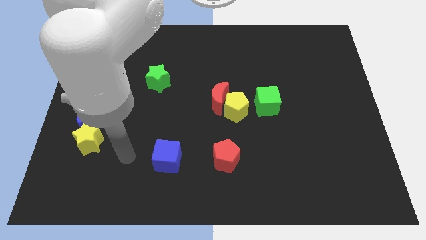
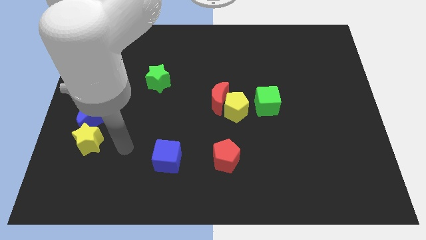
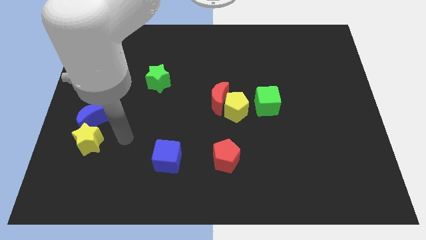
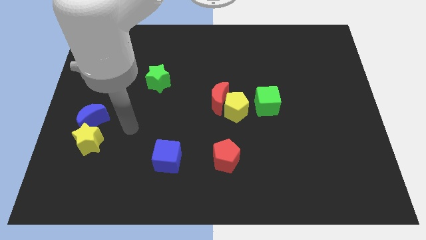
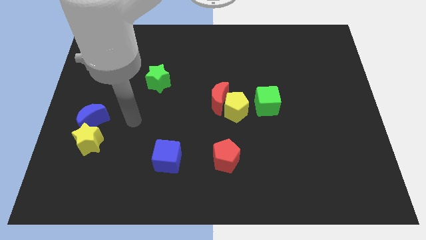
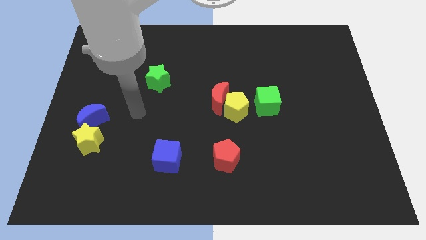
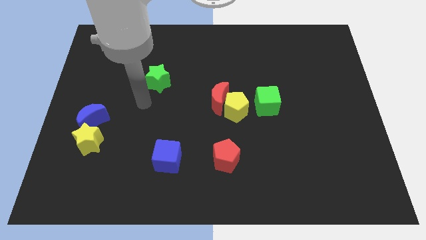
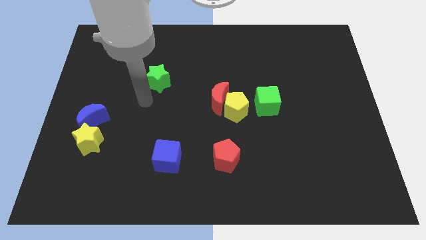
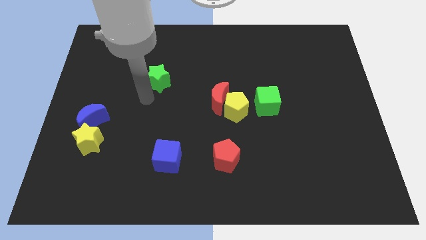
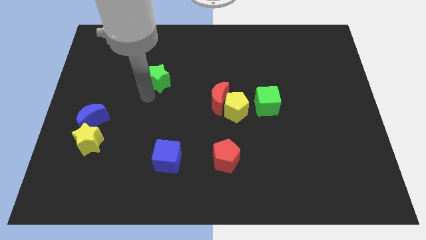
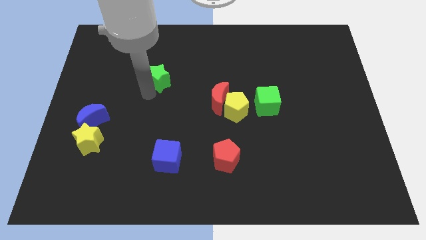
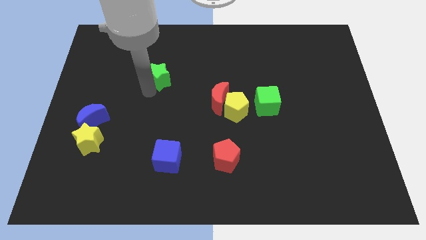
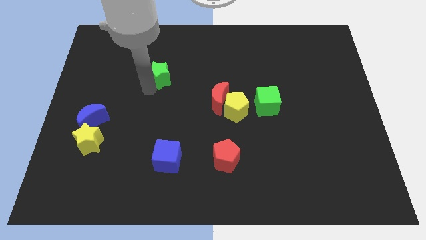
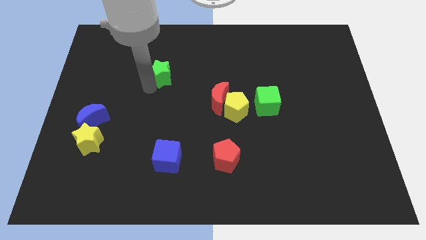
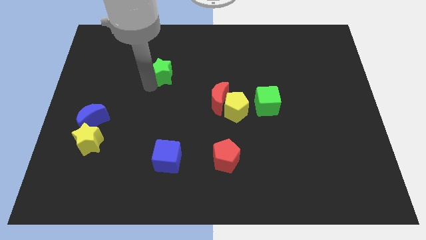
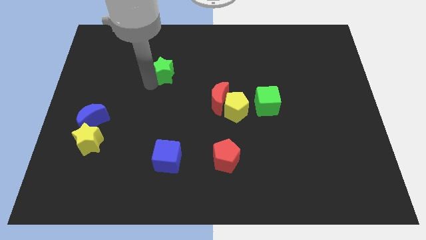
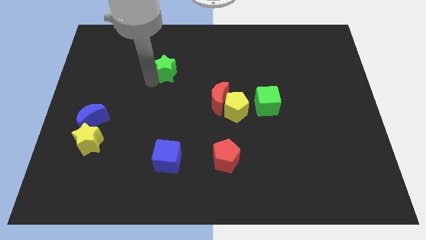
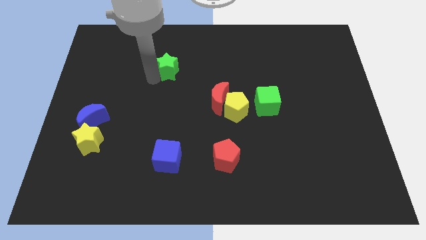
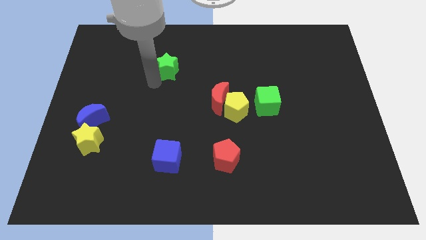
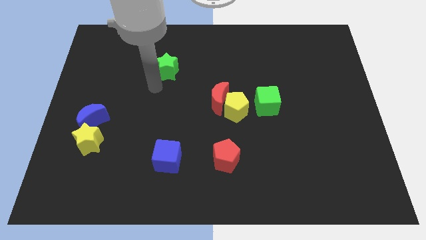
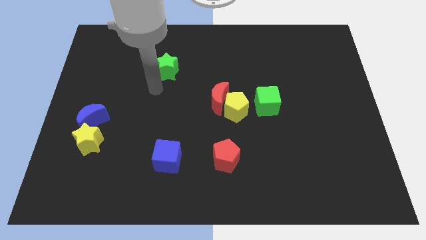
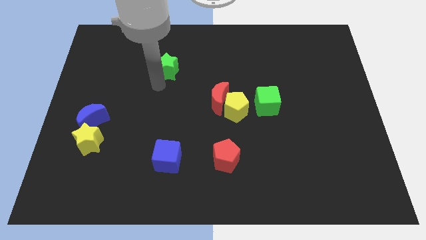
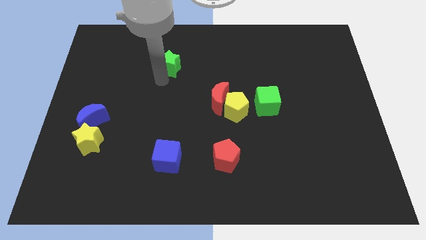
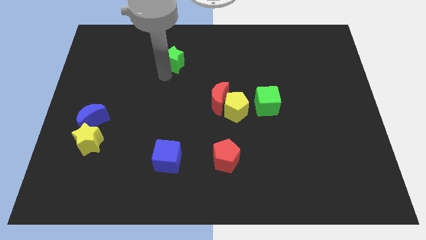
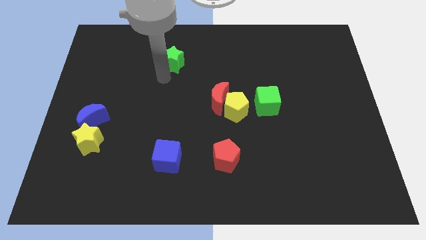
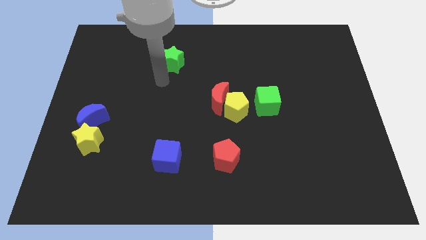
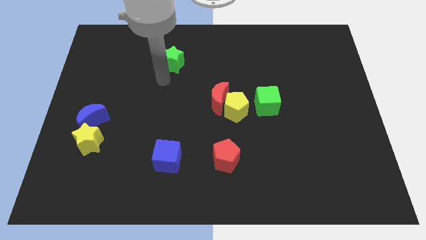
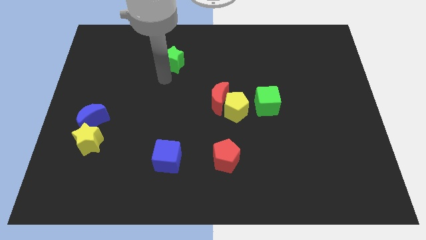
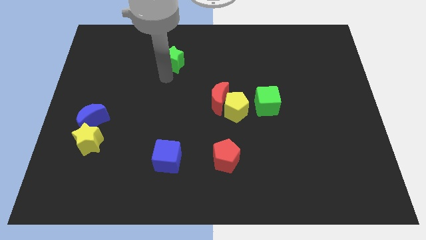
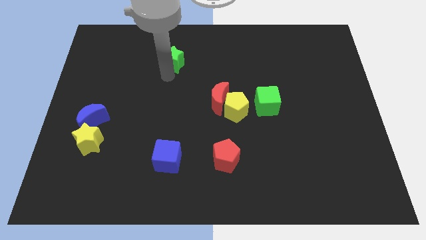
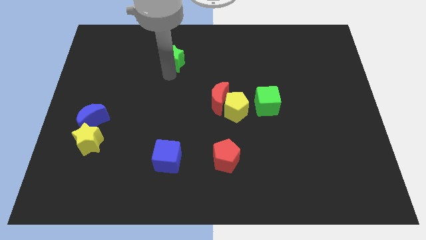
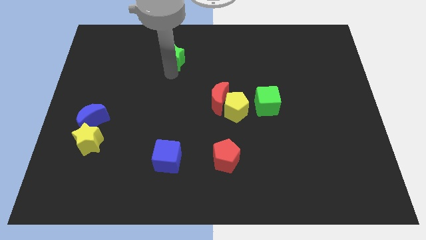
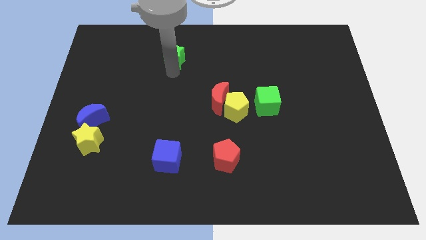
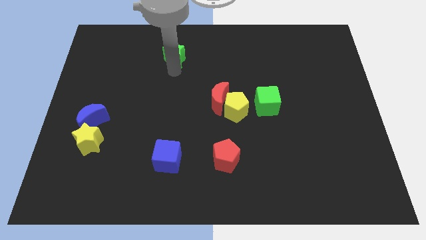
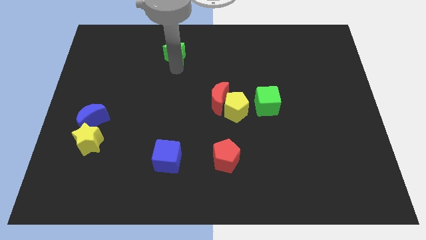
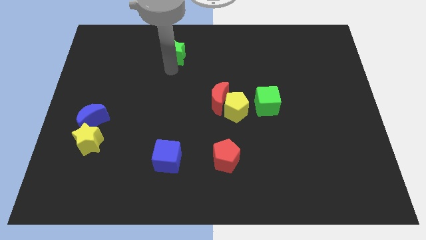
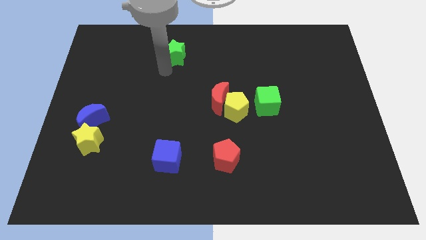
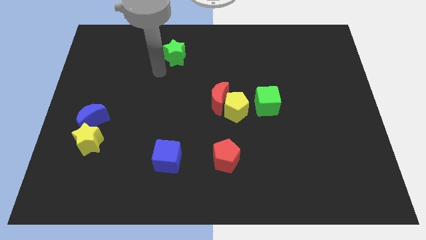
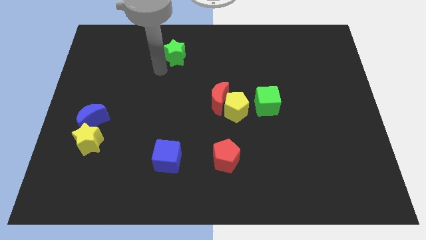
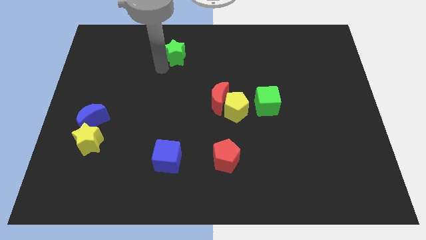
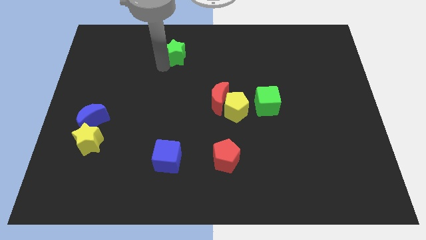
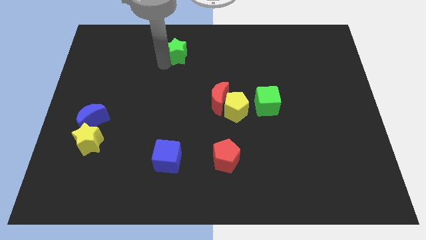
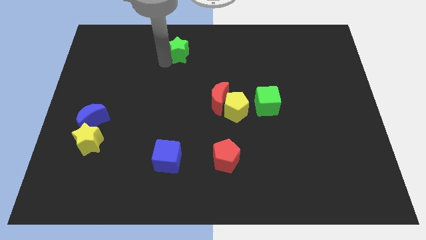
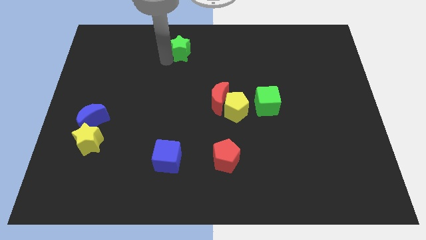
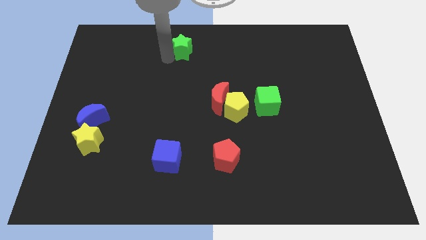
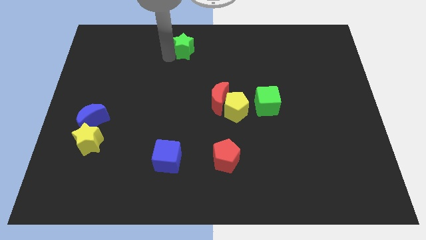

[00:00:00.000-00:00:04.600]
move the green star to the towards your base

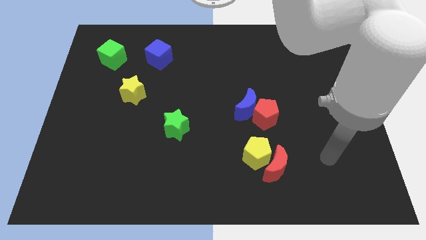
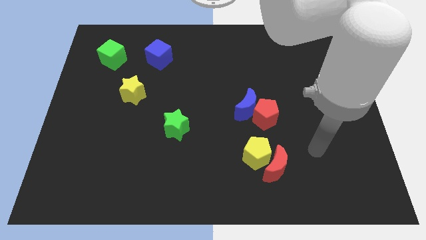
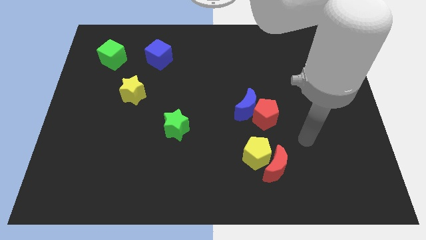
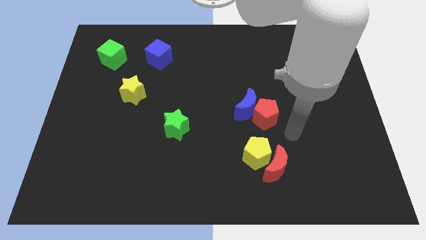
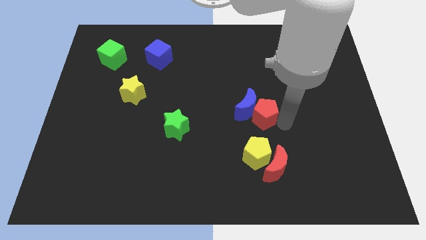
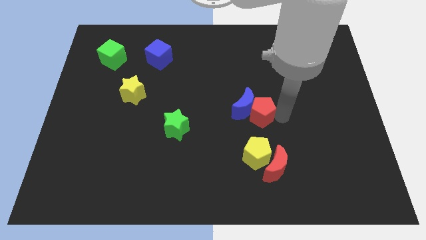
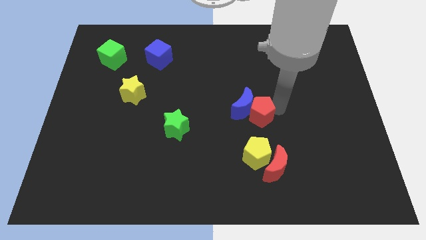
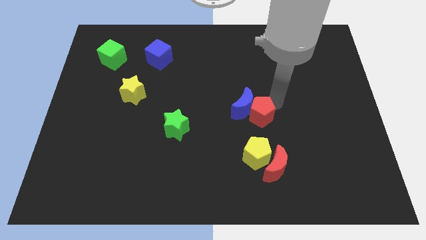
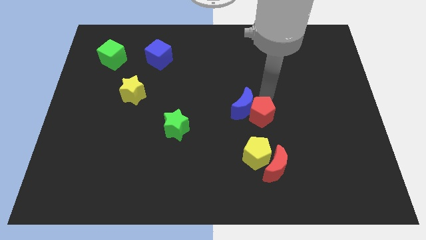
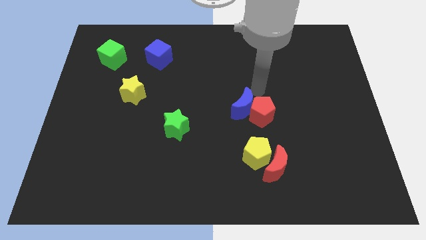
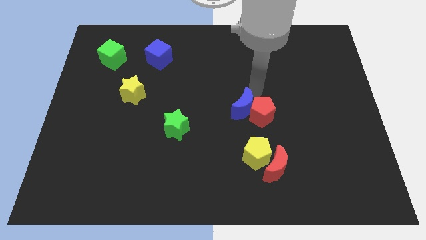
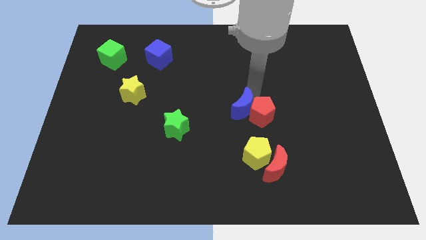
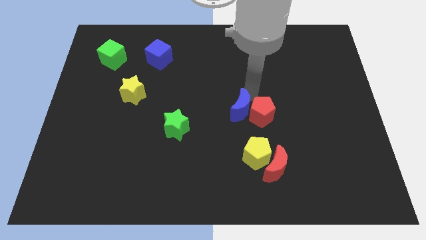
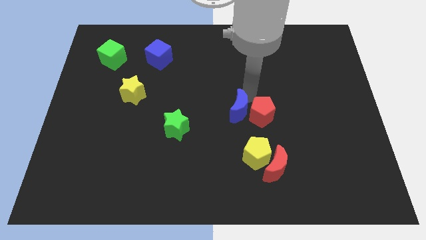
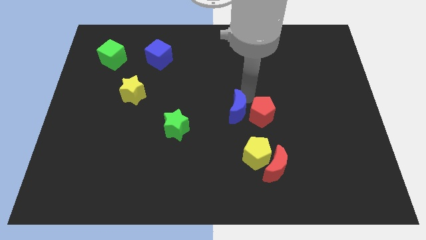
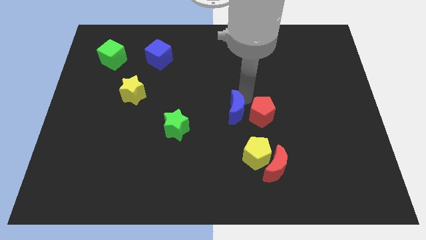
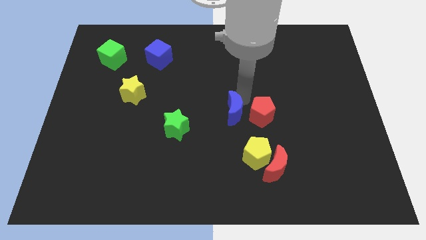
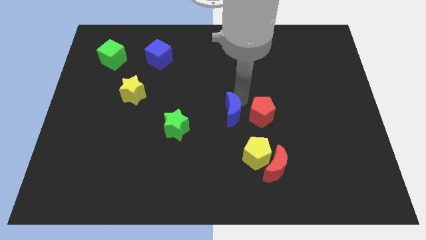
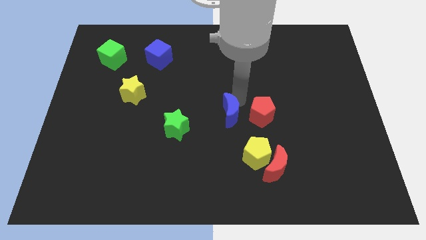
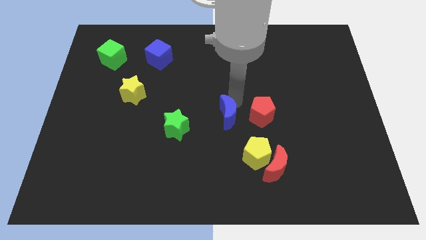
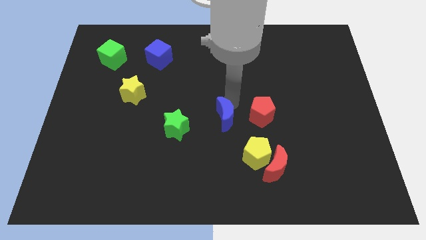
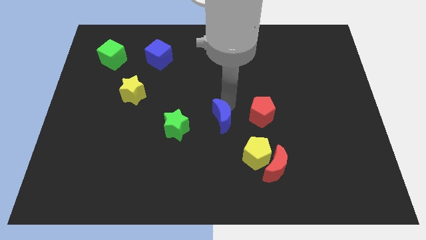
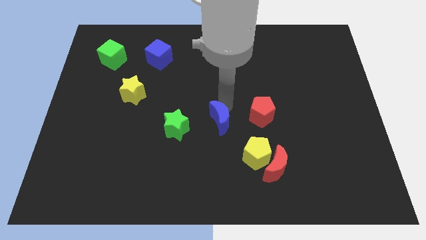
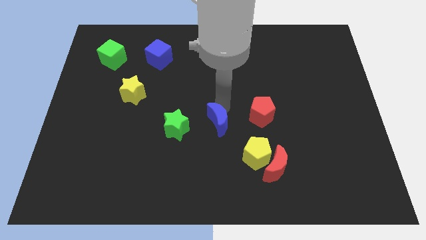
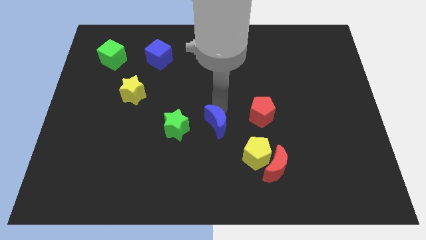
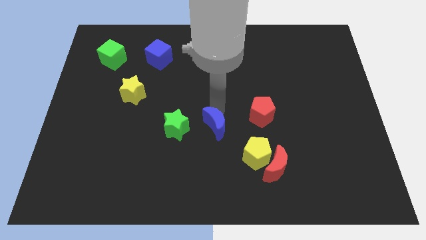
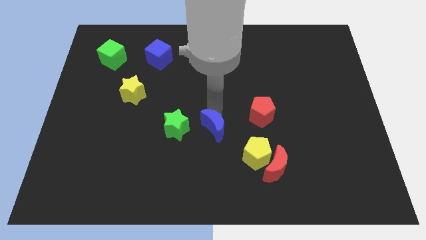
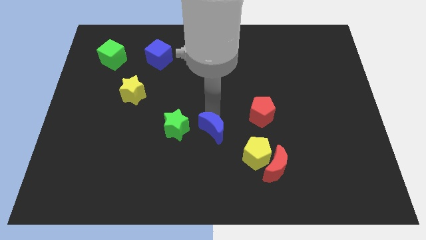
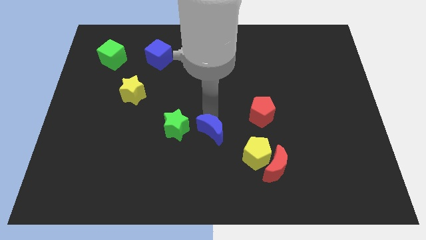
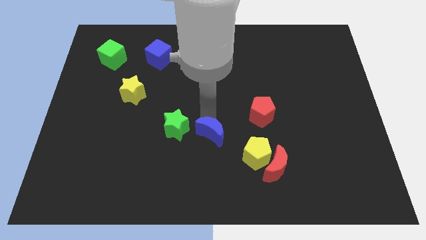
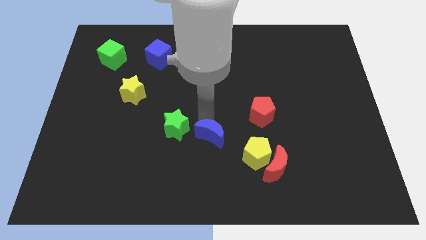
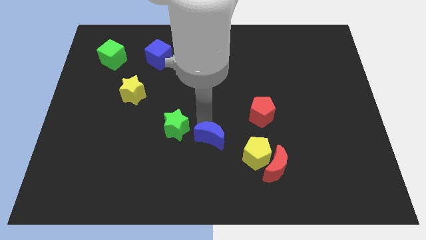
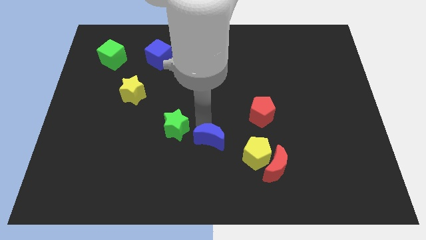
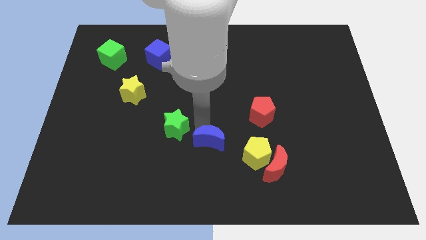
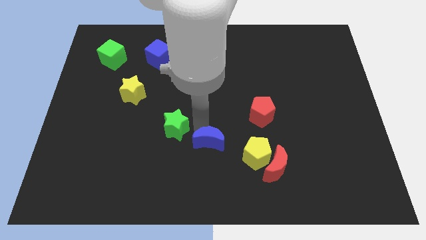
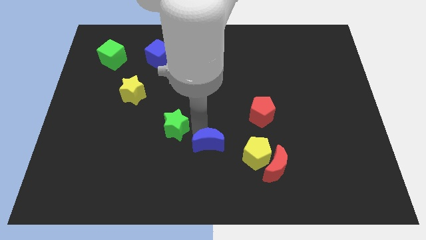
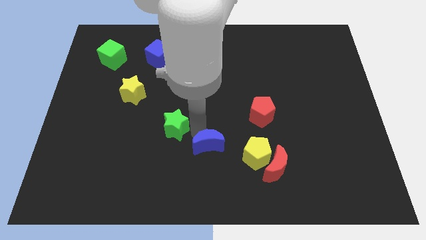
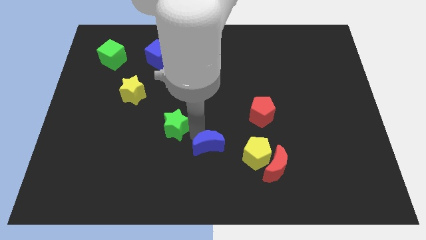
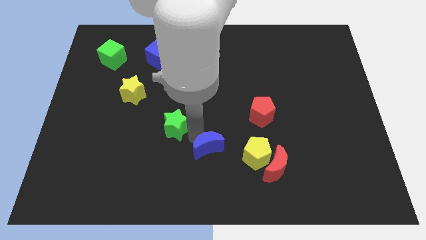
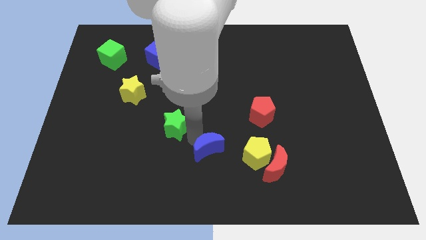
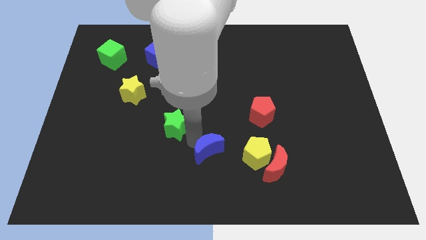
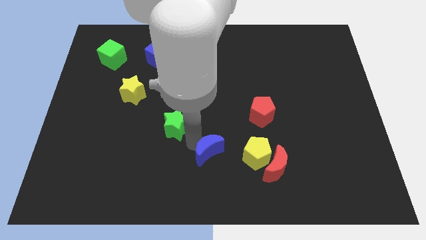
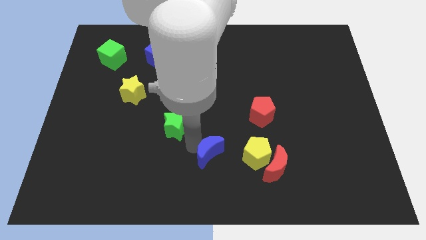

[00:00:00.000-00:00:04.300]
move the blue moon to the bottom side
